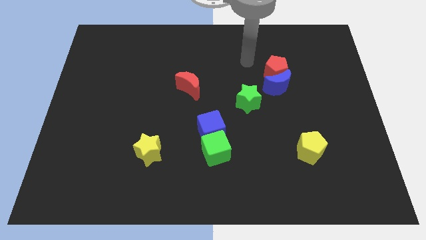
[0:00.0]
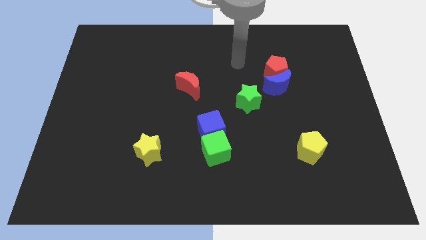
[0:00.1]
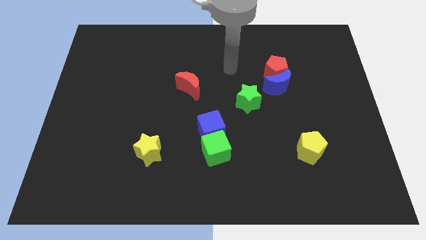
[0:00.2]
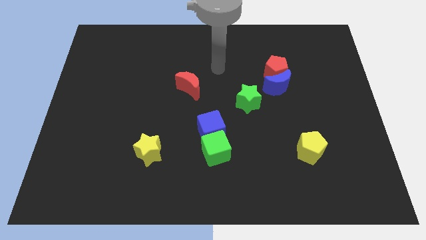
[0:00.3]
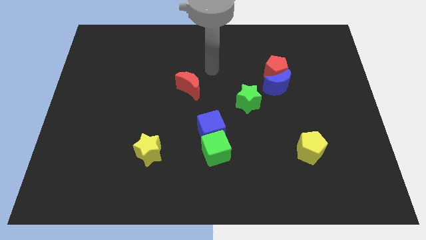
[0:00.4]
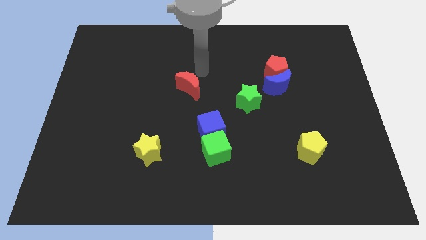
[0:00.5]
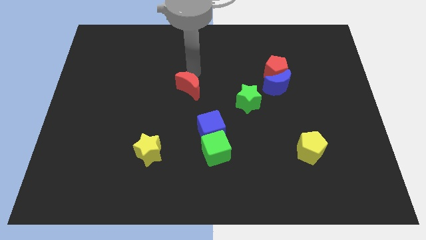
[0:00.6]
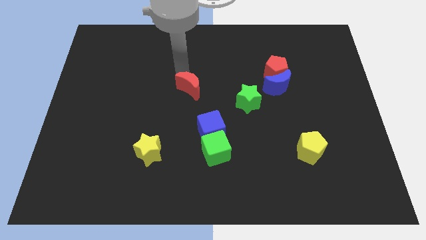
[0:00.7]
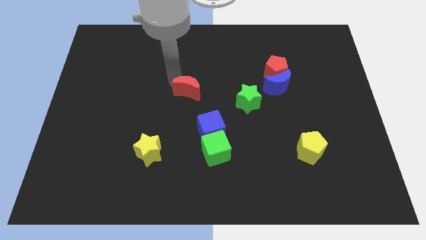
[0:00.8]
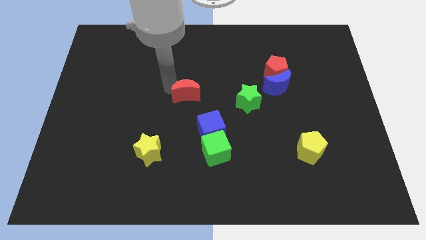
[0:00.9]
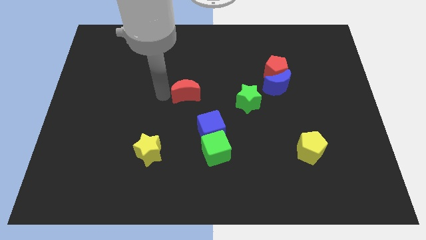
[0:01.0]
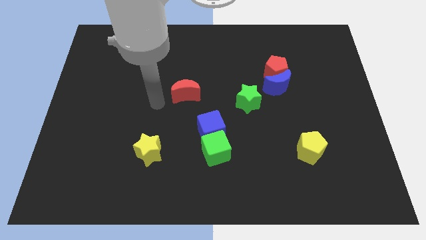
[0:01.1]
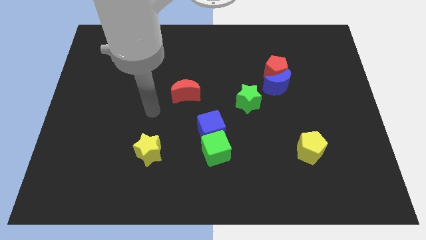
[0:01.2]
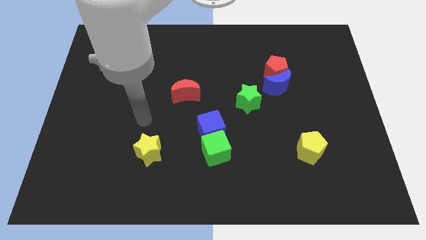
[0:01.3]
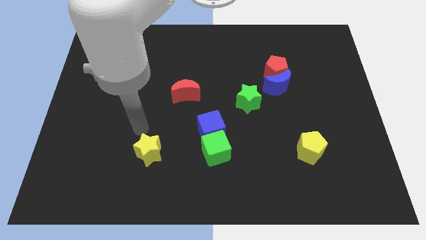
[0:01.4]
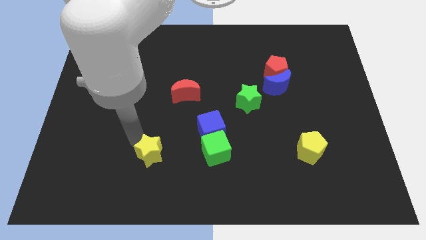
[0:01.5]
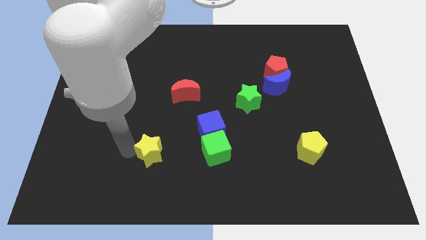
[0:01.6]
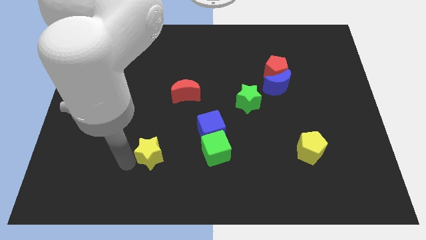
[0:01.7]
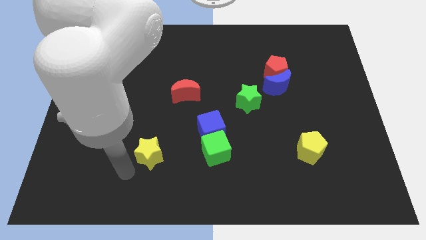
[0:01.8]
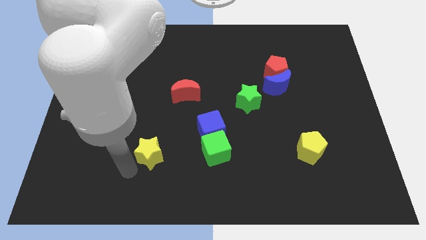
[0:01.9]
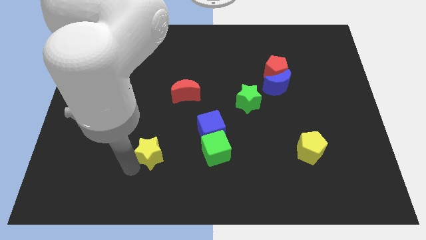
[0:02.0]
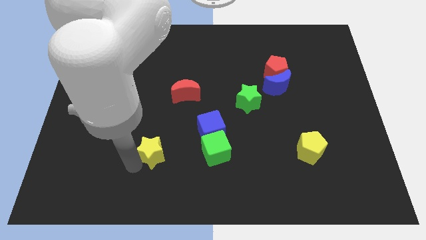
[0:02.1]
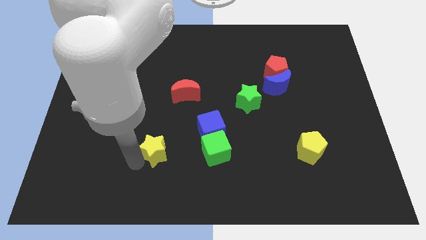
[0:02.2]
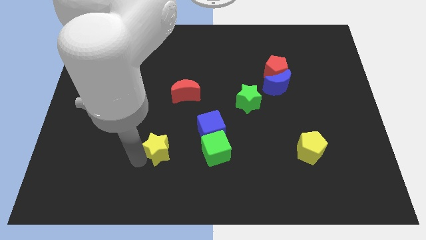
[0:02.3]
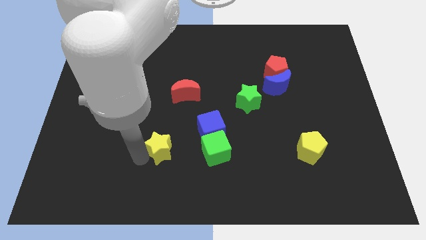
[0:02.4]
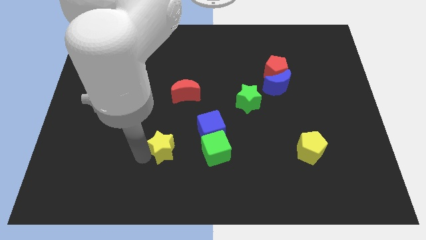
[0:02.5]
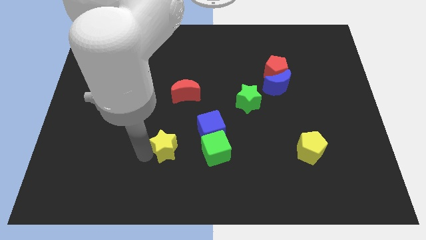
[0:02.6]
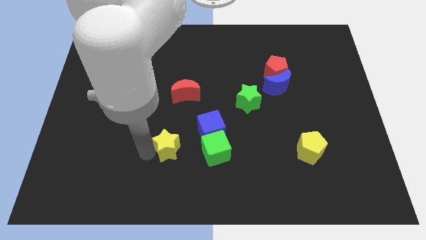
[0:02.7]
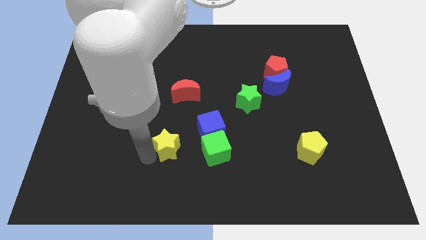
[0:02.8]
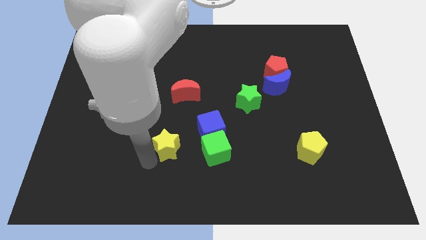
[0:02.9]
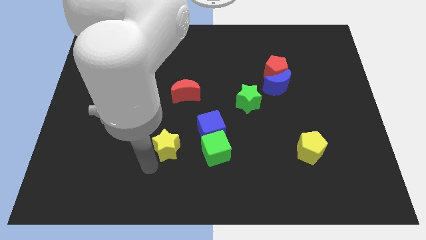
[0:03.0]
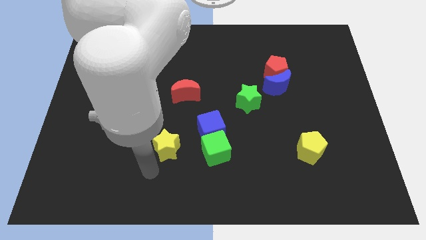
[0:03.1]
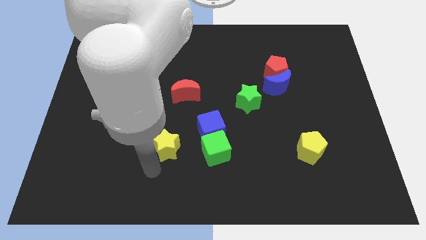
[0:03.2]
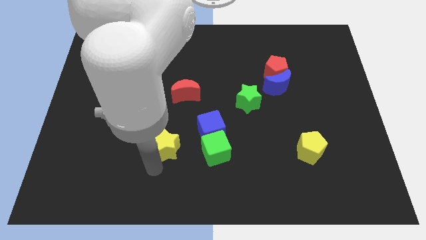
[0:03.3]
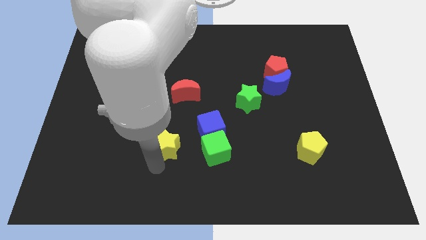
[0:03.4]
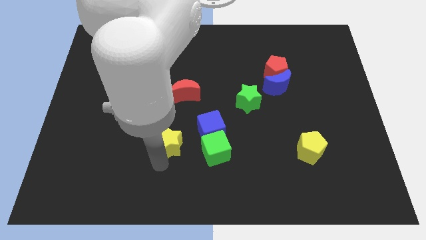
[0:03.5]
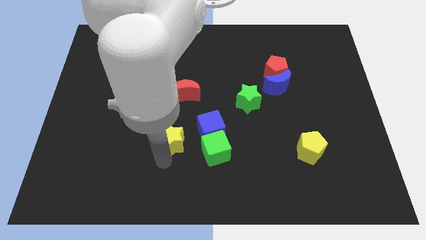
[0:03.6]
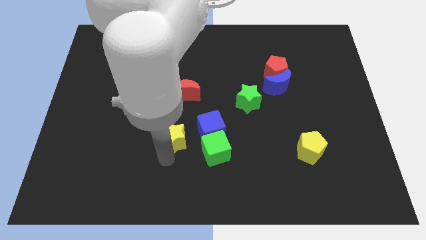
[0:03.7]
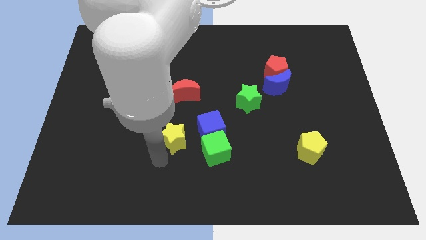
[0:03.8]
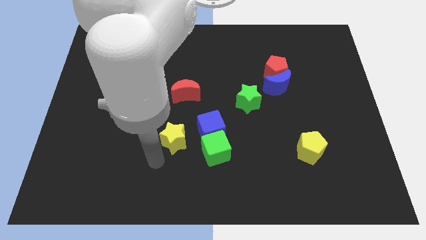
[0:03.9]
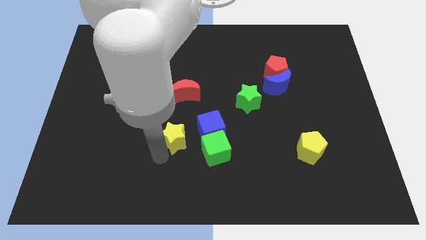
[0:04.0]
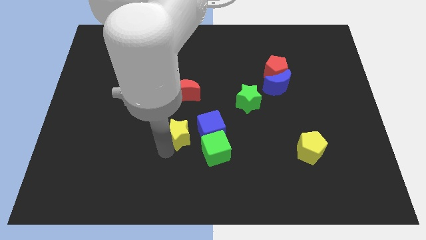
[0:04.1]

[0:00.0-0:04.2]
slightly push the yellow star upwards and then right

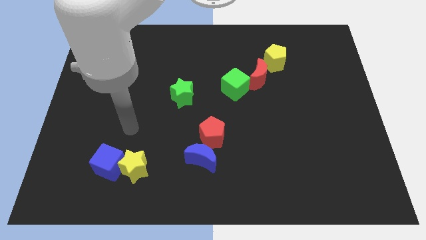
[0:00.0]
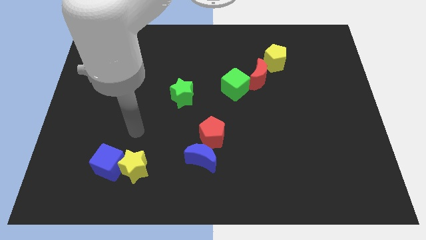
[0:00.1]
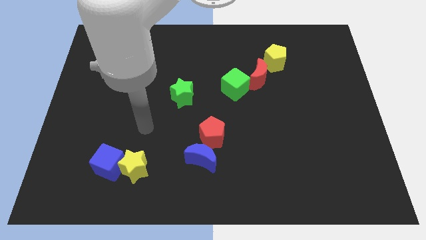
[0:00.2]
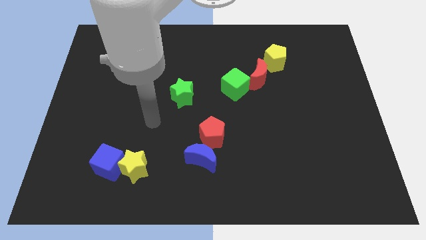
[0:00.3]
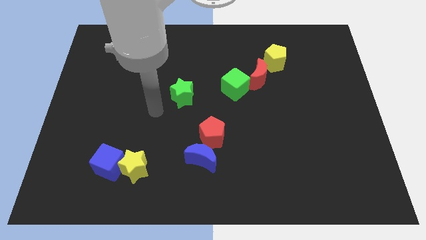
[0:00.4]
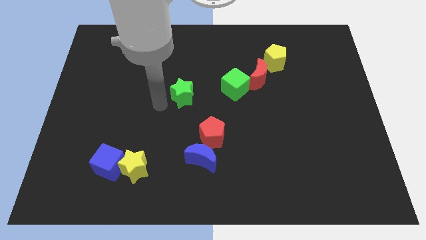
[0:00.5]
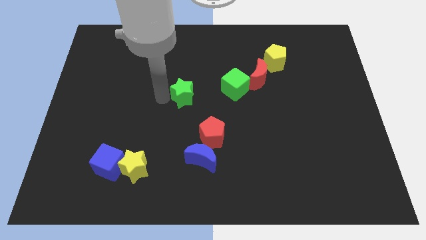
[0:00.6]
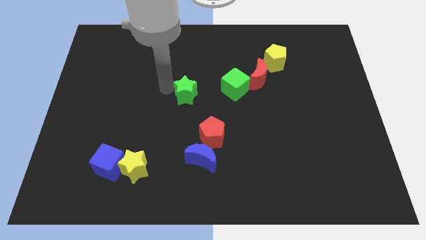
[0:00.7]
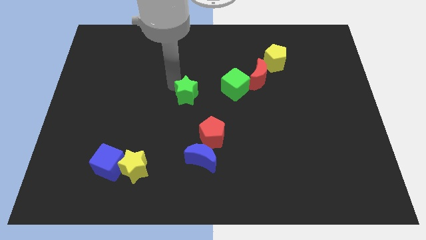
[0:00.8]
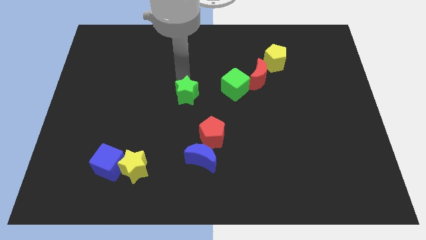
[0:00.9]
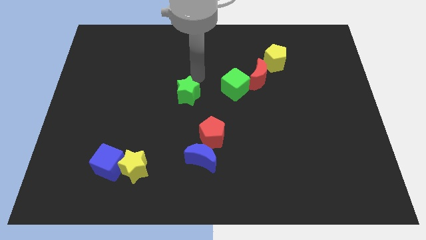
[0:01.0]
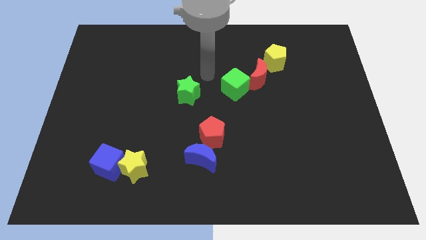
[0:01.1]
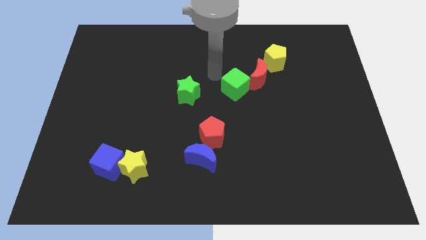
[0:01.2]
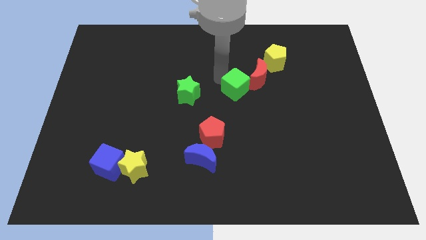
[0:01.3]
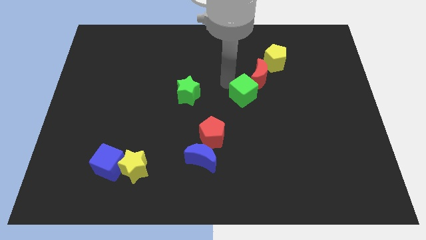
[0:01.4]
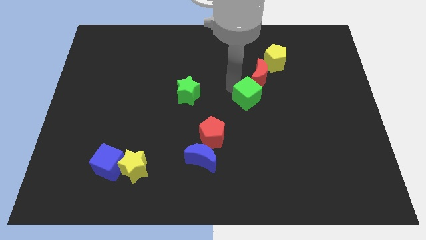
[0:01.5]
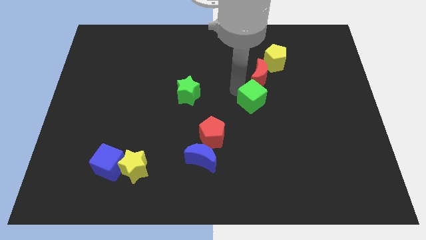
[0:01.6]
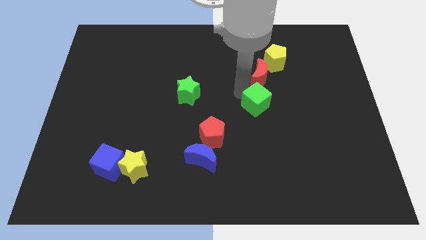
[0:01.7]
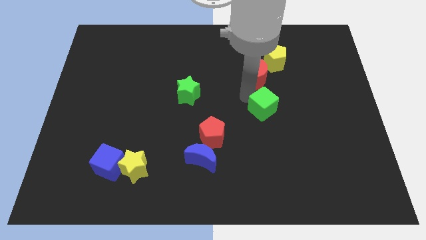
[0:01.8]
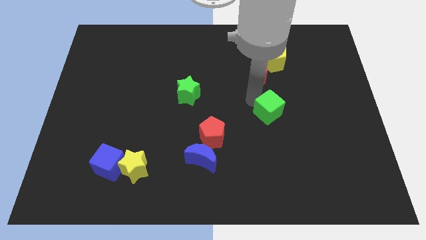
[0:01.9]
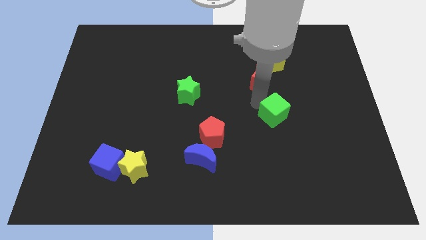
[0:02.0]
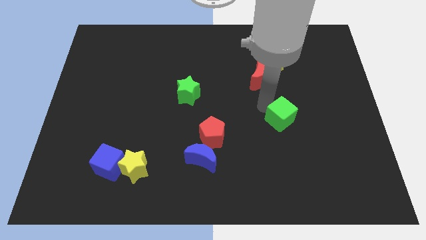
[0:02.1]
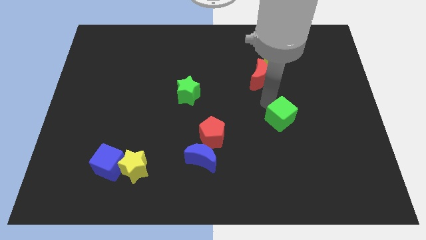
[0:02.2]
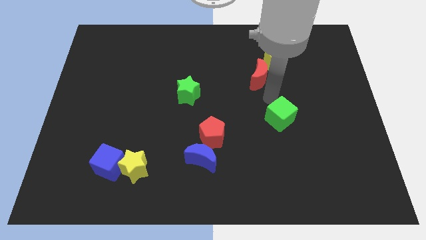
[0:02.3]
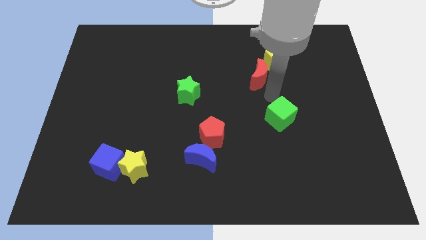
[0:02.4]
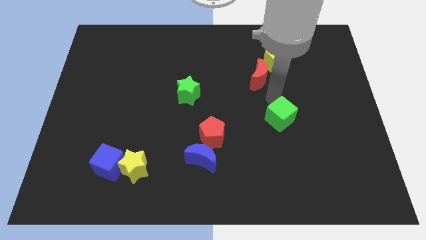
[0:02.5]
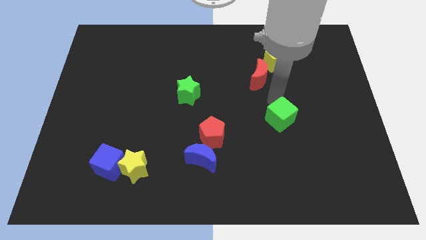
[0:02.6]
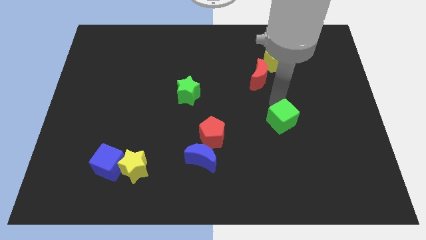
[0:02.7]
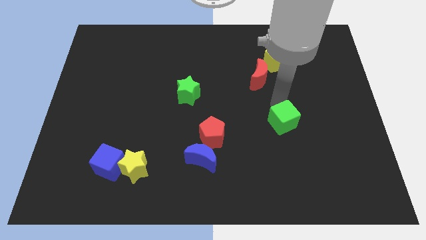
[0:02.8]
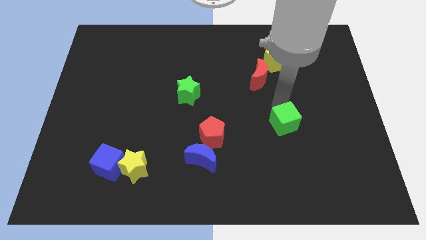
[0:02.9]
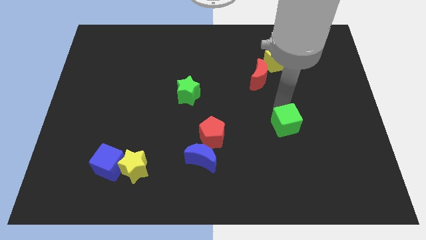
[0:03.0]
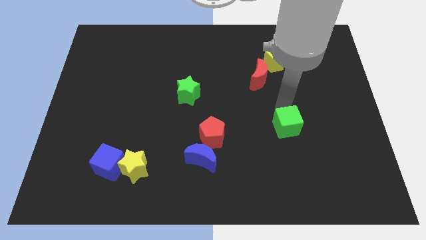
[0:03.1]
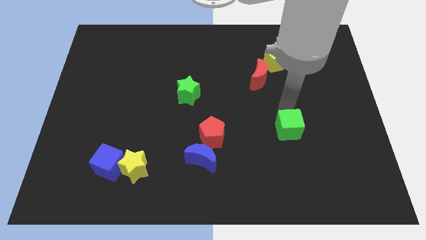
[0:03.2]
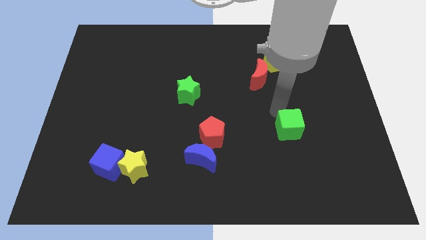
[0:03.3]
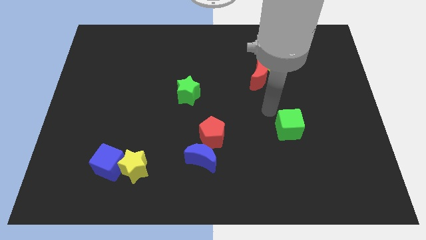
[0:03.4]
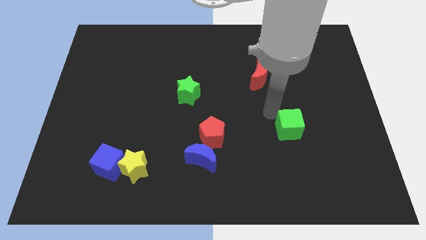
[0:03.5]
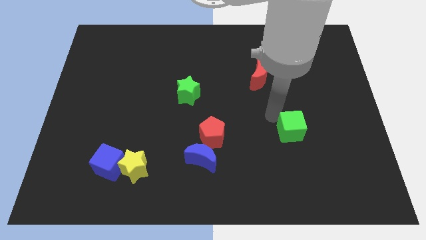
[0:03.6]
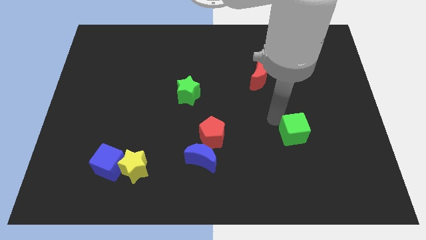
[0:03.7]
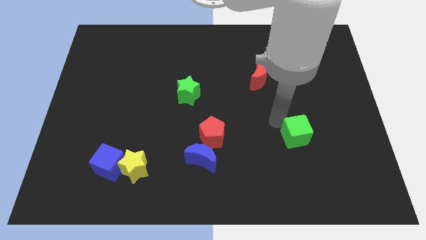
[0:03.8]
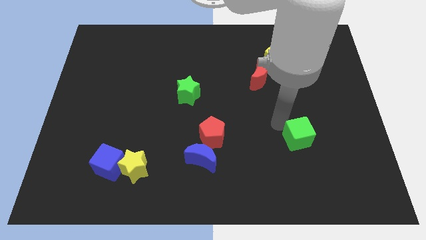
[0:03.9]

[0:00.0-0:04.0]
slide the green cube down and to the right
